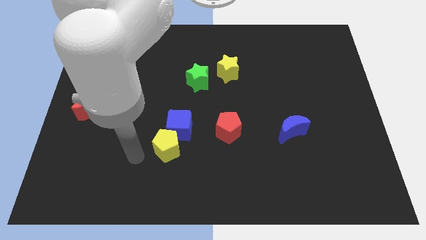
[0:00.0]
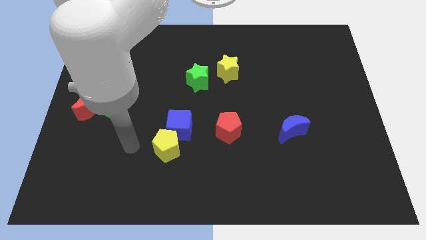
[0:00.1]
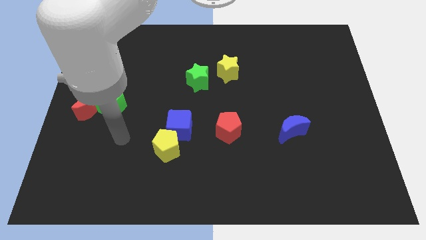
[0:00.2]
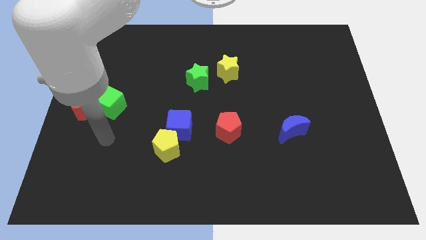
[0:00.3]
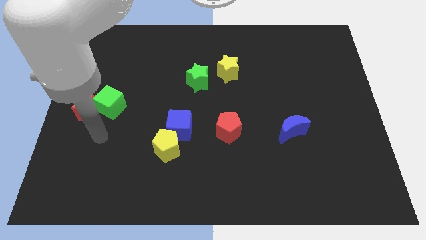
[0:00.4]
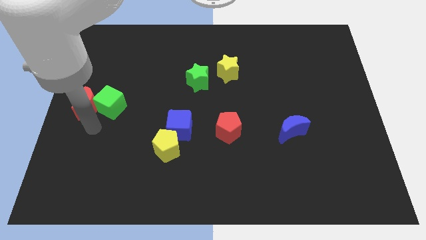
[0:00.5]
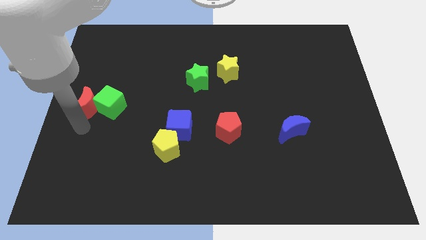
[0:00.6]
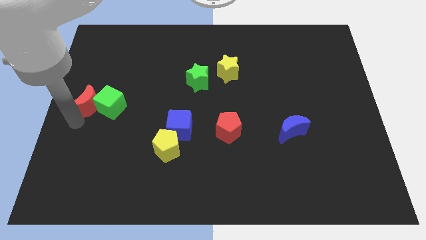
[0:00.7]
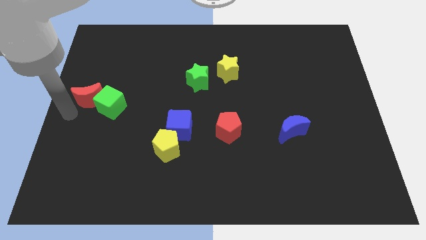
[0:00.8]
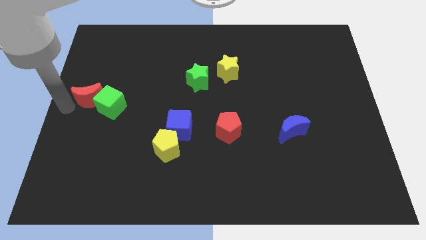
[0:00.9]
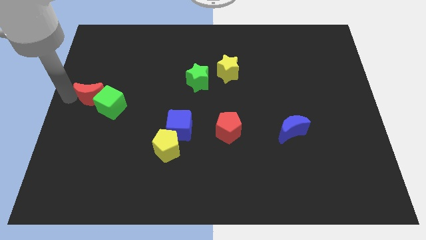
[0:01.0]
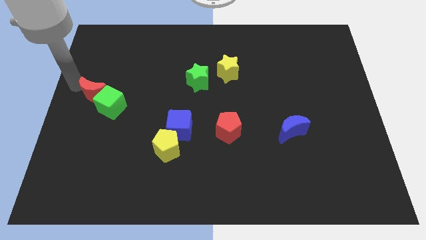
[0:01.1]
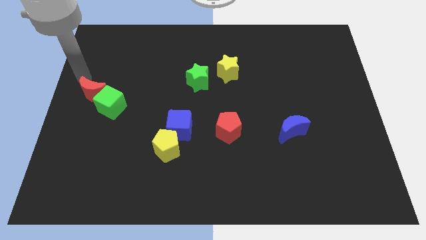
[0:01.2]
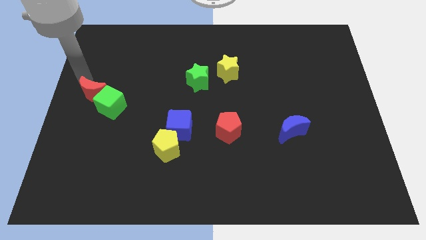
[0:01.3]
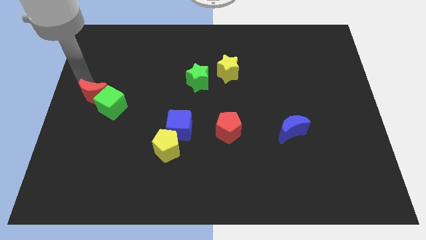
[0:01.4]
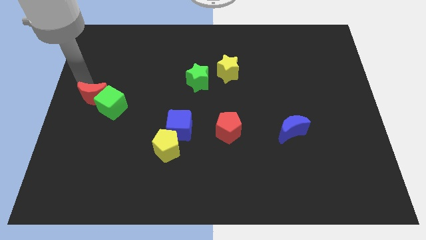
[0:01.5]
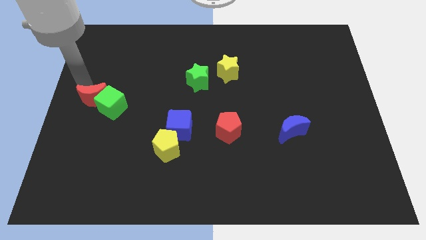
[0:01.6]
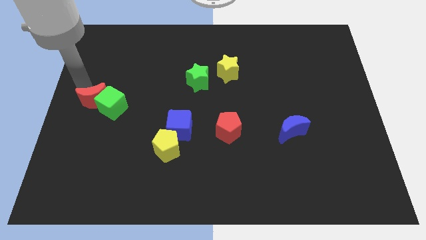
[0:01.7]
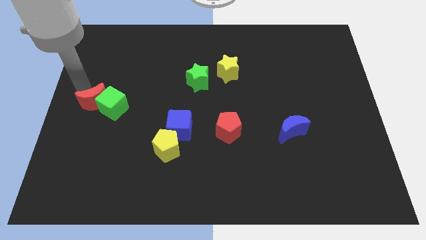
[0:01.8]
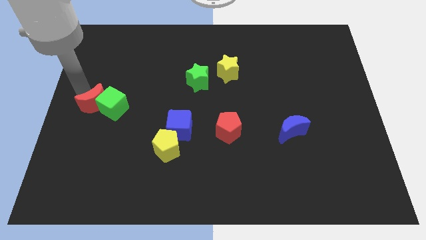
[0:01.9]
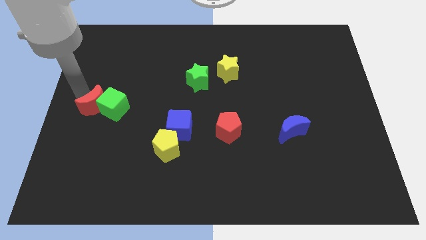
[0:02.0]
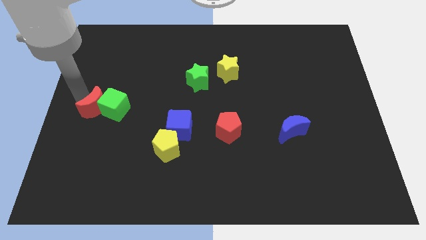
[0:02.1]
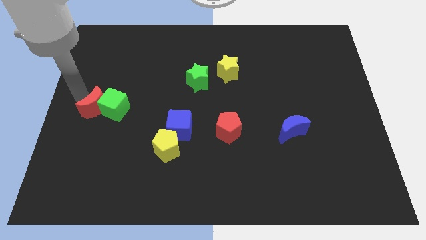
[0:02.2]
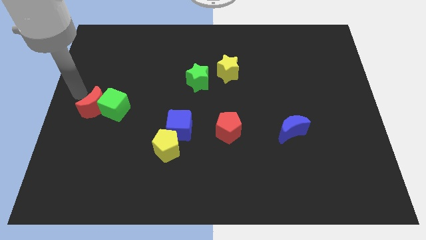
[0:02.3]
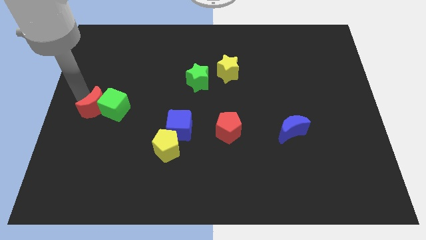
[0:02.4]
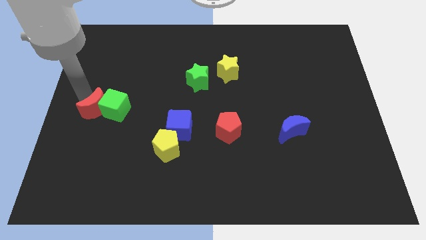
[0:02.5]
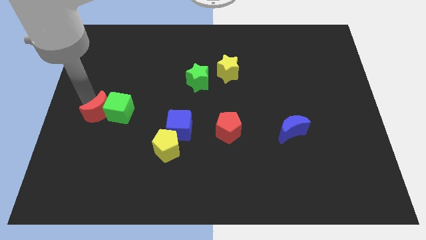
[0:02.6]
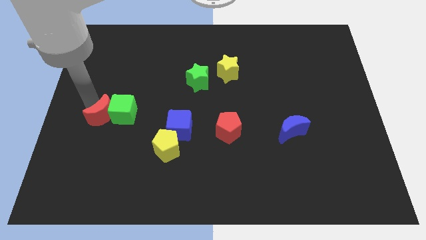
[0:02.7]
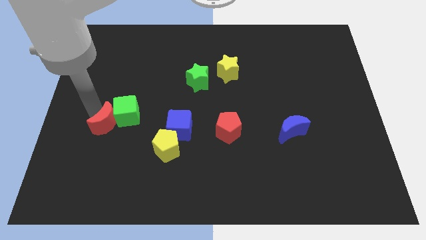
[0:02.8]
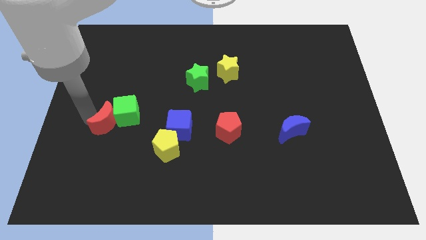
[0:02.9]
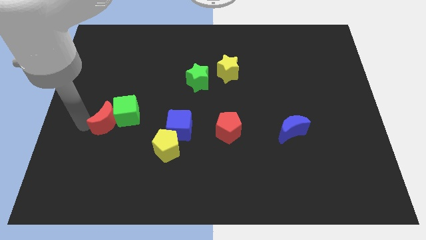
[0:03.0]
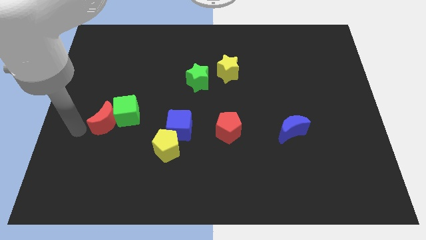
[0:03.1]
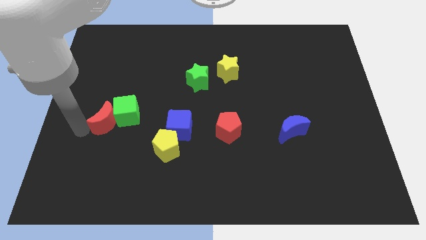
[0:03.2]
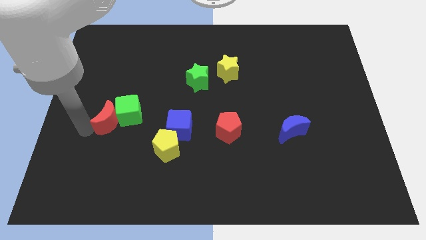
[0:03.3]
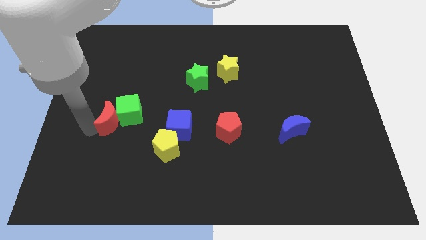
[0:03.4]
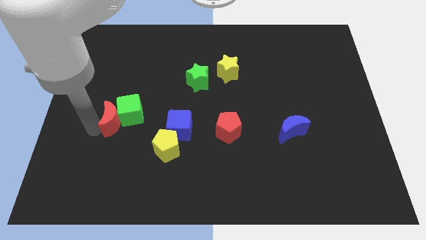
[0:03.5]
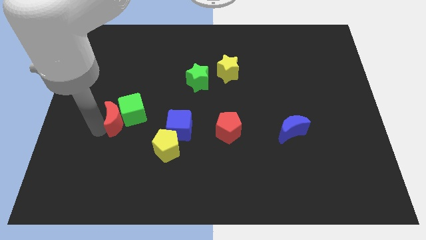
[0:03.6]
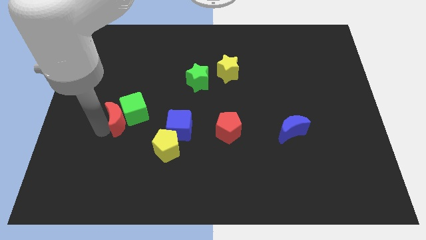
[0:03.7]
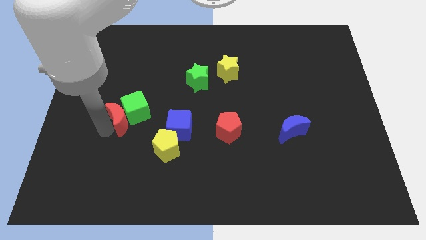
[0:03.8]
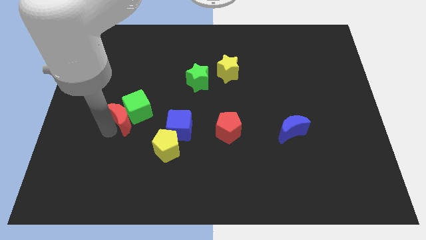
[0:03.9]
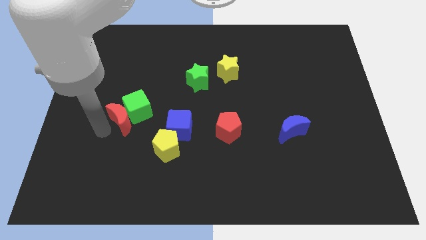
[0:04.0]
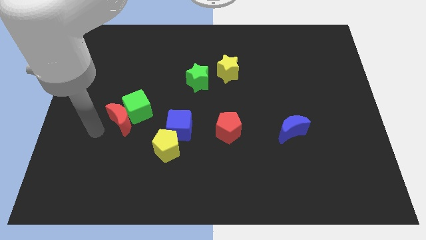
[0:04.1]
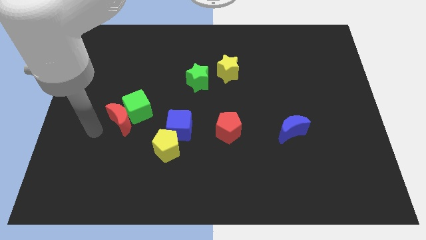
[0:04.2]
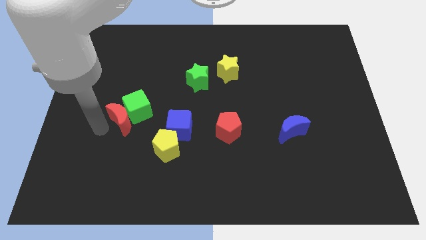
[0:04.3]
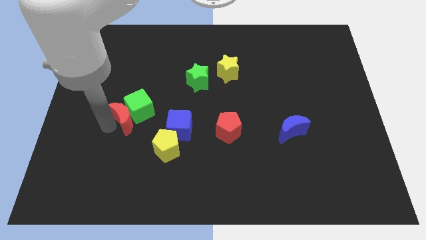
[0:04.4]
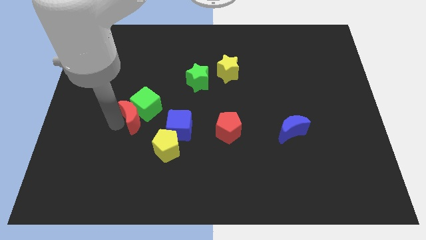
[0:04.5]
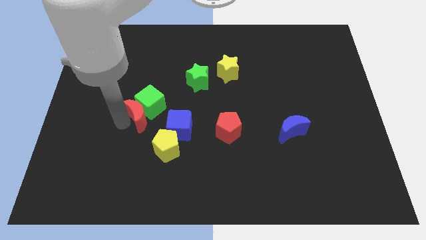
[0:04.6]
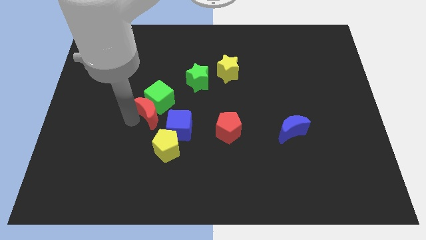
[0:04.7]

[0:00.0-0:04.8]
slide the red moon to the top of the yellow pentagon

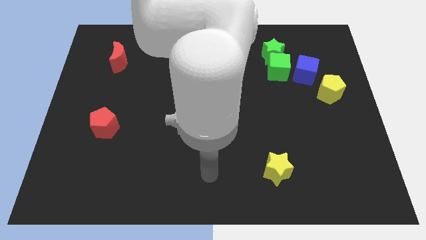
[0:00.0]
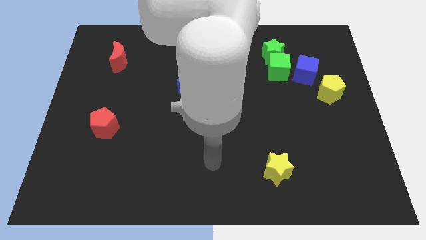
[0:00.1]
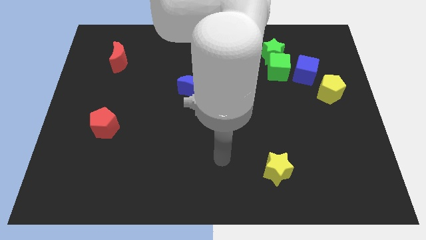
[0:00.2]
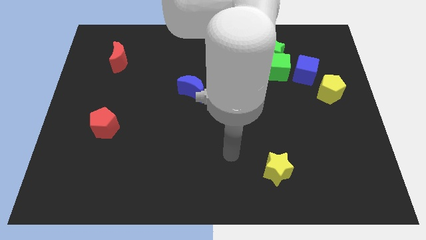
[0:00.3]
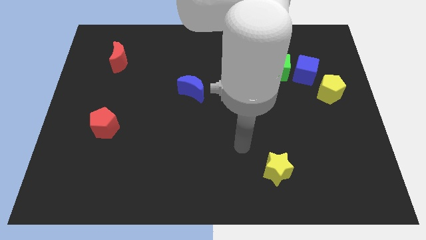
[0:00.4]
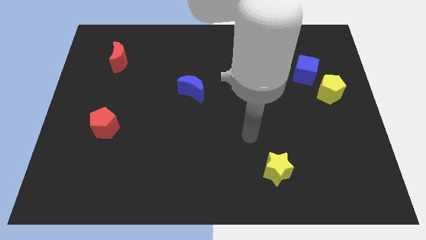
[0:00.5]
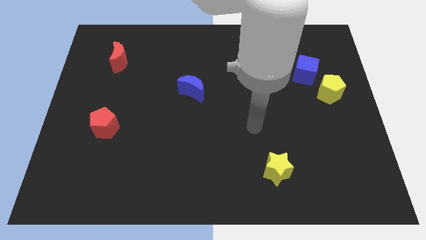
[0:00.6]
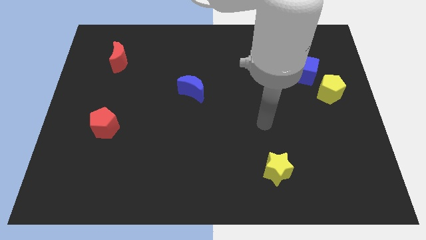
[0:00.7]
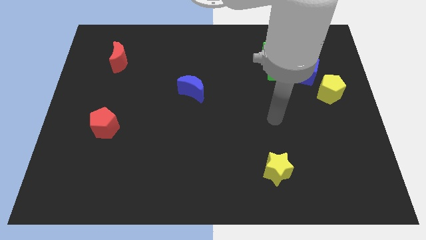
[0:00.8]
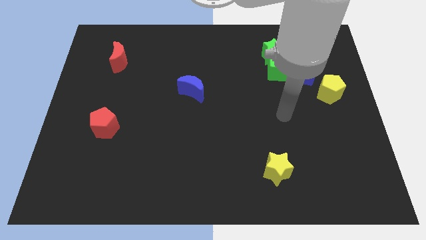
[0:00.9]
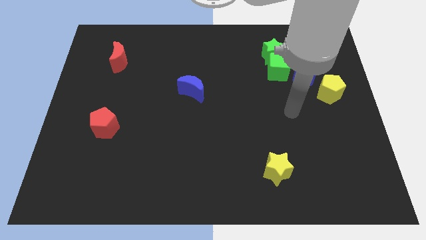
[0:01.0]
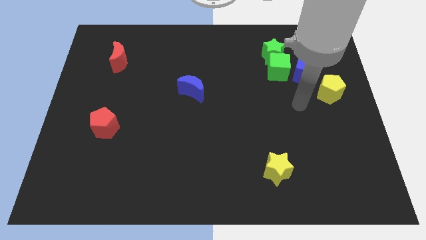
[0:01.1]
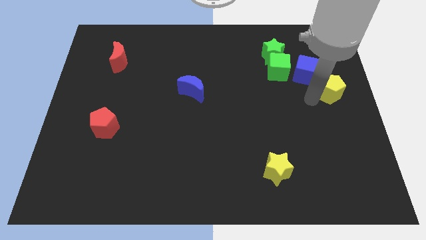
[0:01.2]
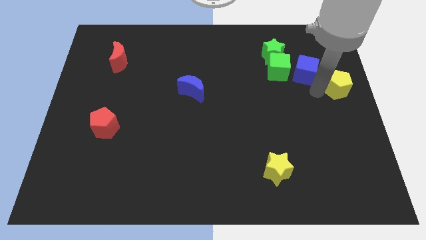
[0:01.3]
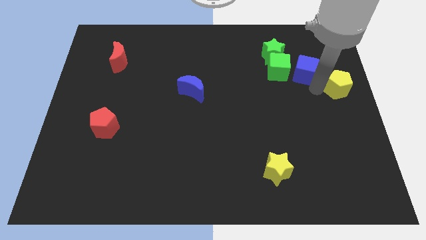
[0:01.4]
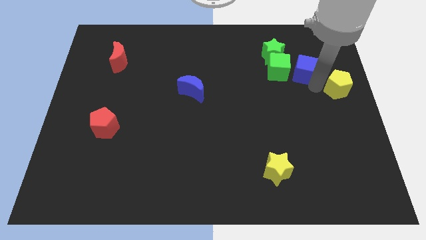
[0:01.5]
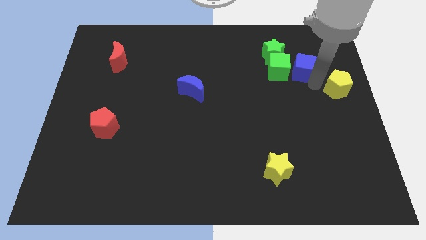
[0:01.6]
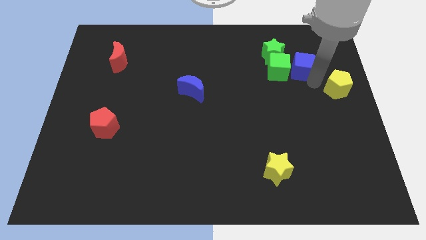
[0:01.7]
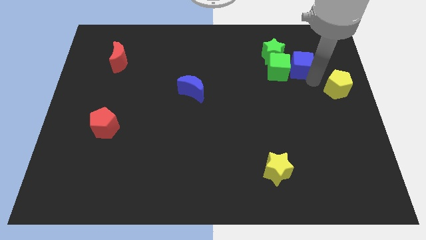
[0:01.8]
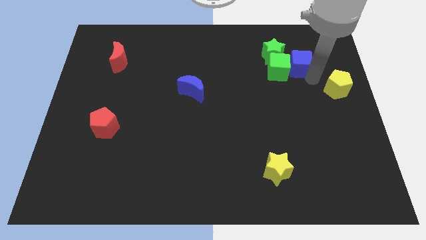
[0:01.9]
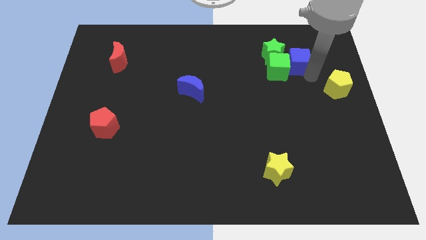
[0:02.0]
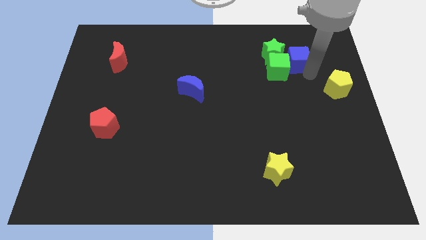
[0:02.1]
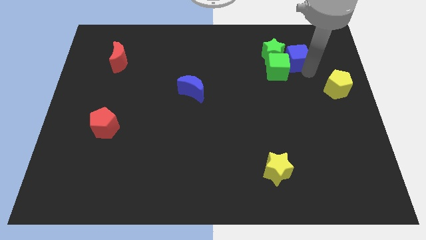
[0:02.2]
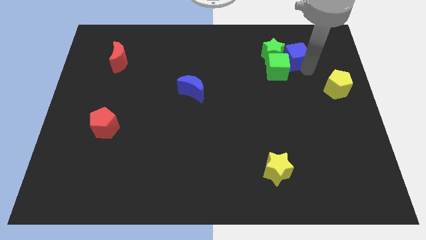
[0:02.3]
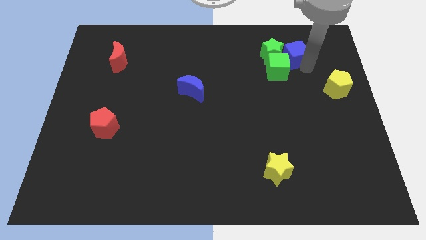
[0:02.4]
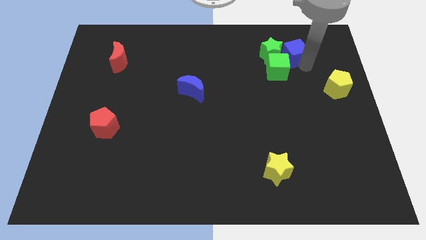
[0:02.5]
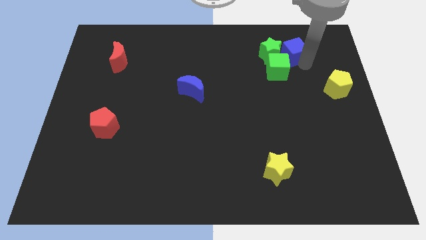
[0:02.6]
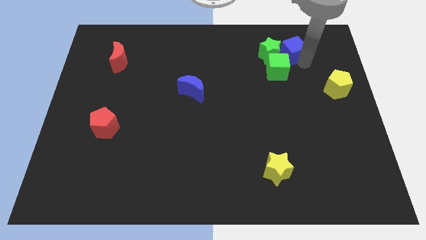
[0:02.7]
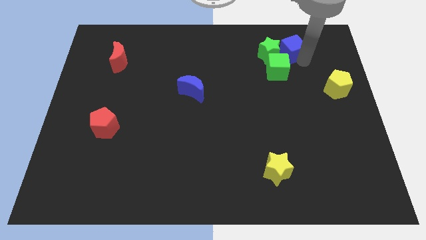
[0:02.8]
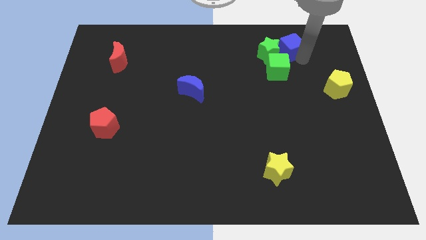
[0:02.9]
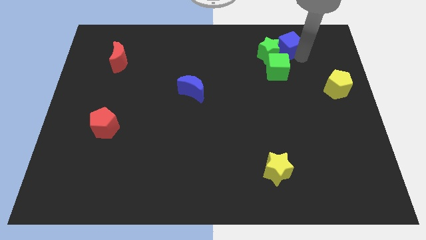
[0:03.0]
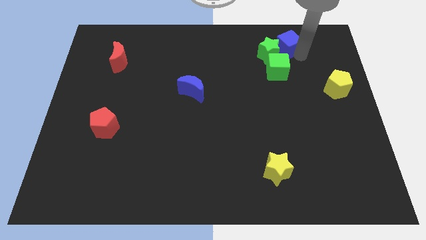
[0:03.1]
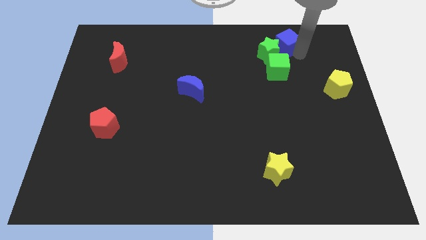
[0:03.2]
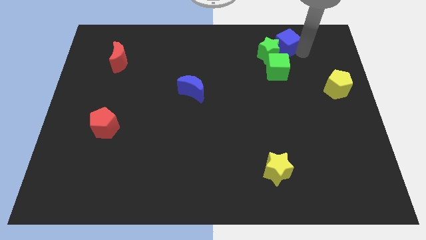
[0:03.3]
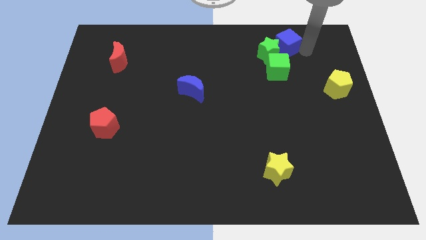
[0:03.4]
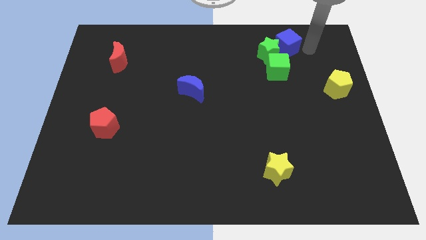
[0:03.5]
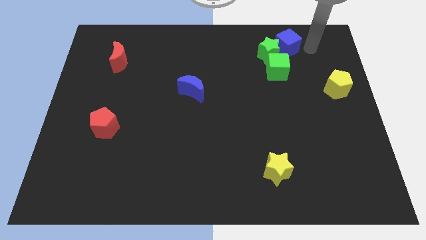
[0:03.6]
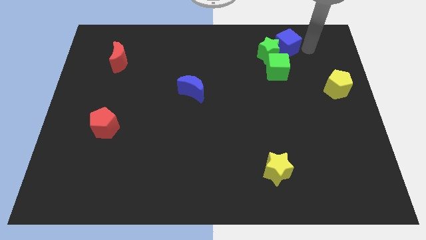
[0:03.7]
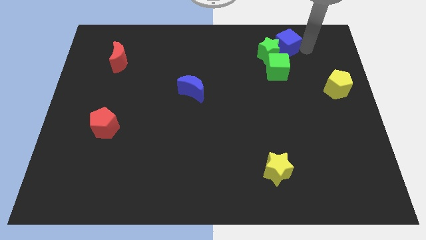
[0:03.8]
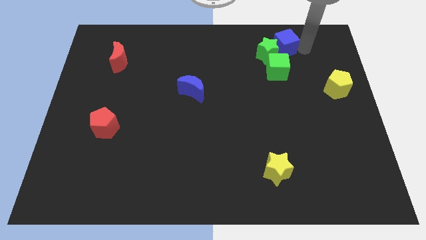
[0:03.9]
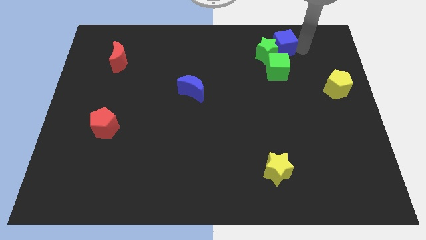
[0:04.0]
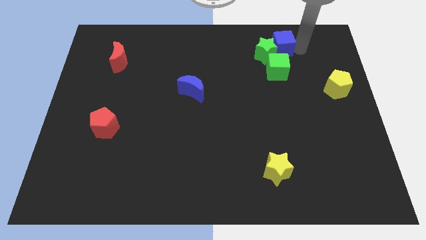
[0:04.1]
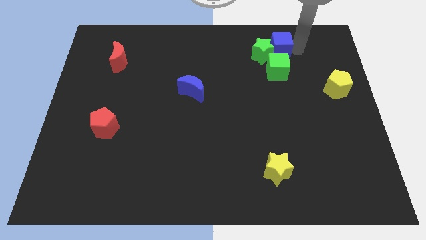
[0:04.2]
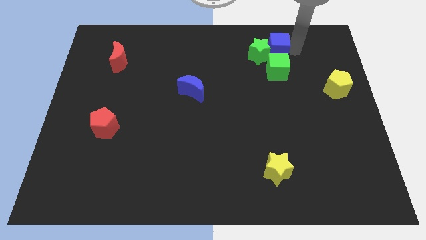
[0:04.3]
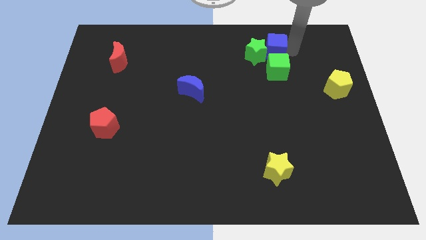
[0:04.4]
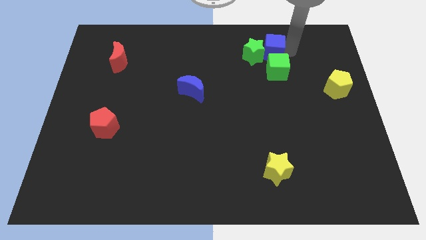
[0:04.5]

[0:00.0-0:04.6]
slide the blue cube diagonally up and to the left of the green cube
